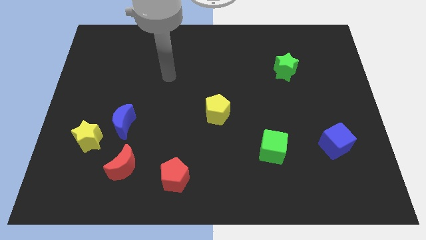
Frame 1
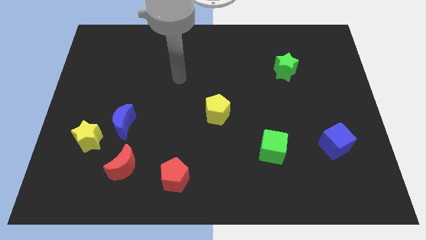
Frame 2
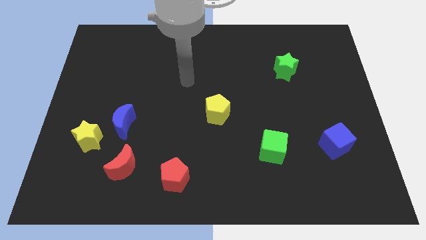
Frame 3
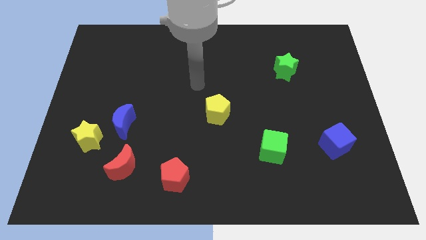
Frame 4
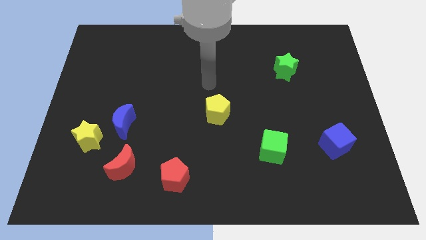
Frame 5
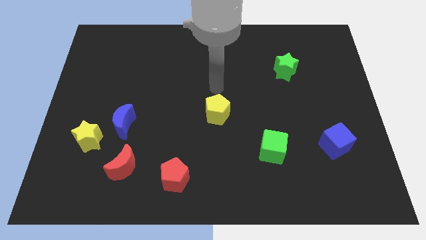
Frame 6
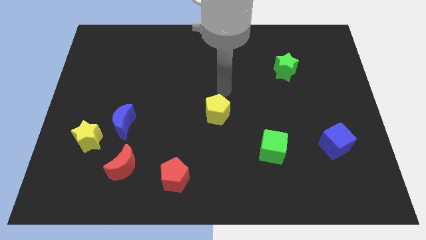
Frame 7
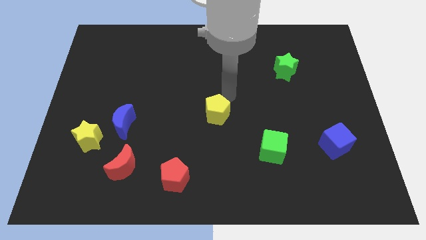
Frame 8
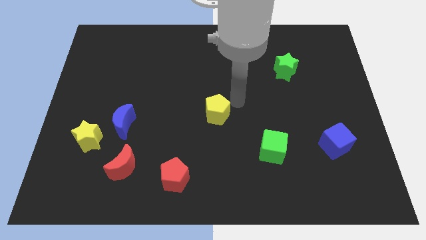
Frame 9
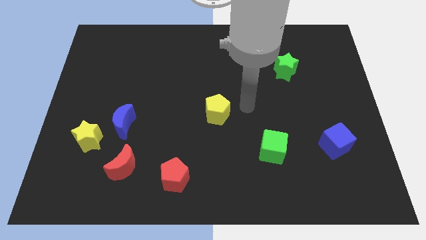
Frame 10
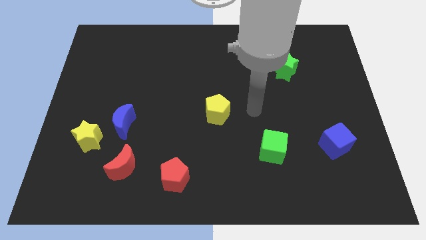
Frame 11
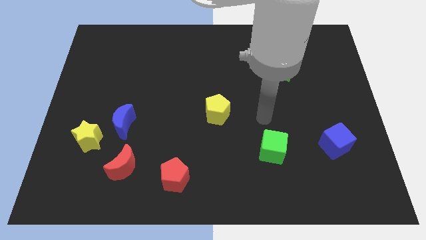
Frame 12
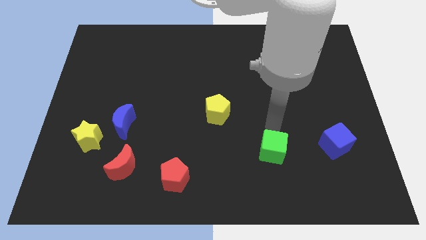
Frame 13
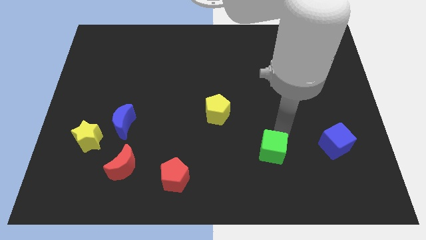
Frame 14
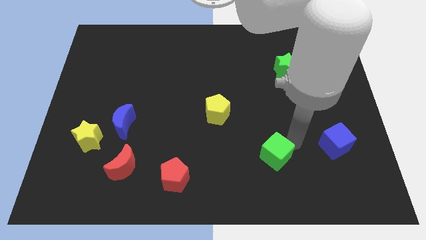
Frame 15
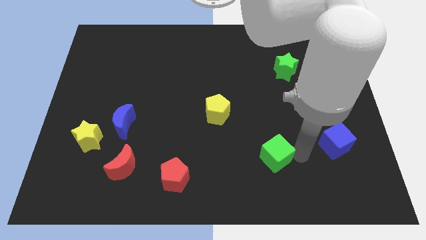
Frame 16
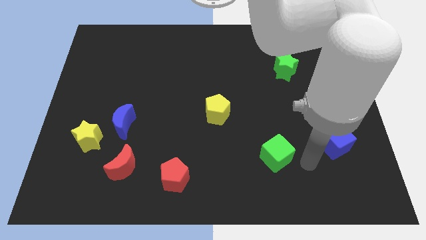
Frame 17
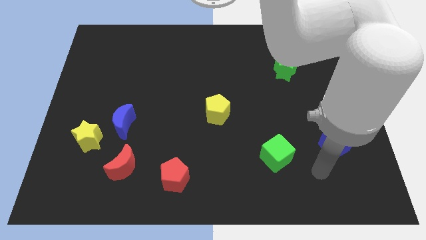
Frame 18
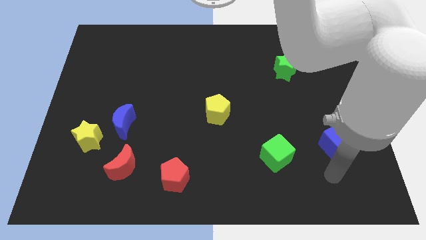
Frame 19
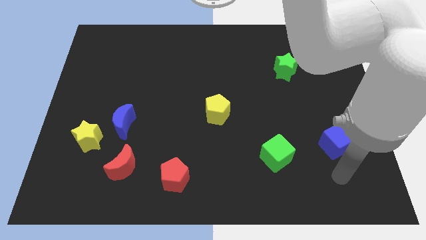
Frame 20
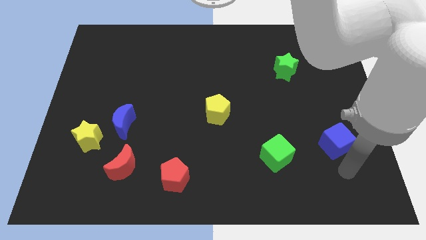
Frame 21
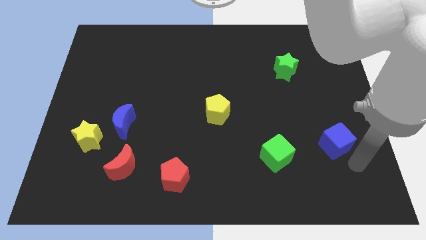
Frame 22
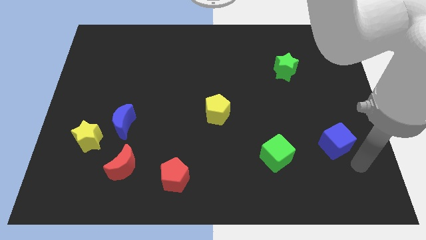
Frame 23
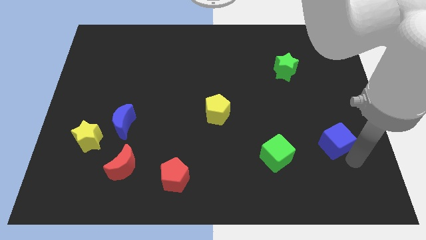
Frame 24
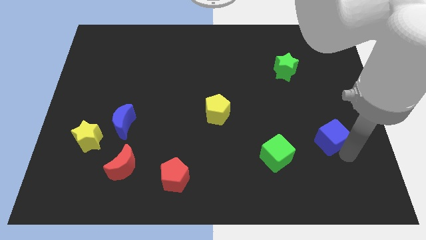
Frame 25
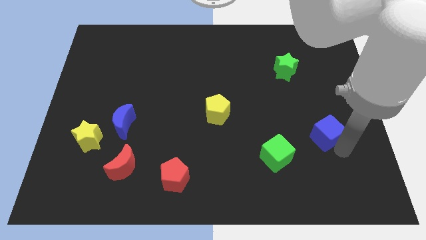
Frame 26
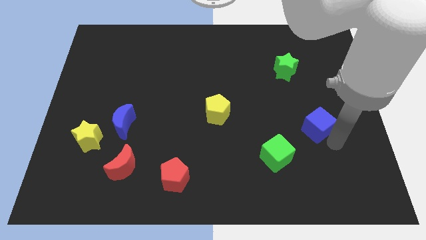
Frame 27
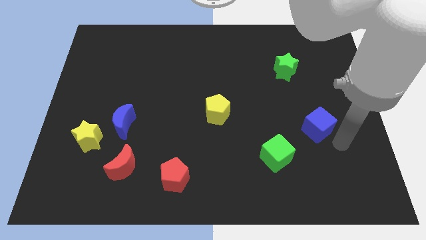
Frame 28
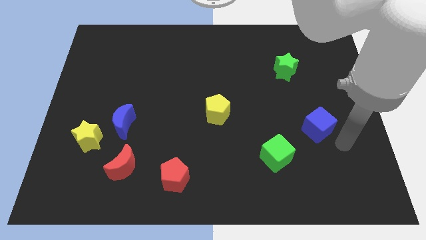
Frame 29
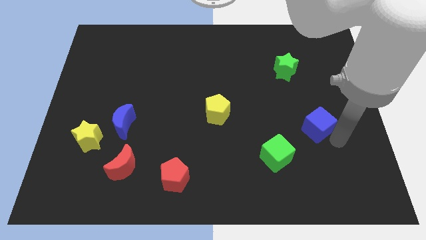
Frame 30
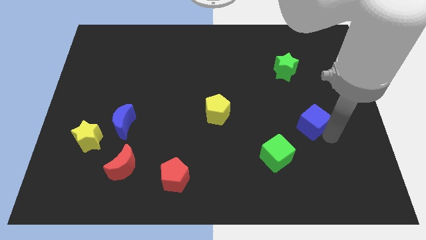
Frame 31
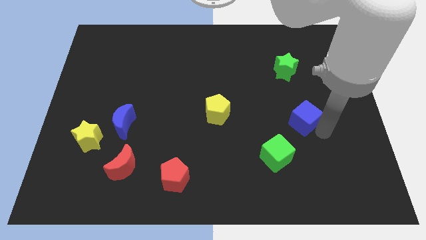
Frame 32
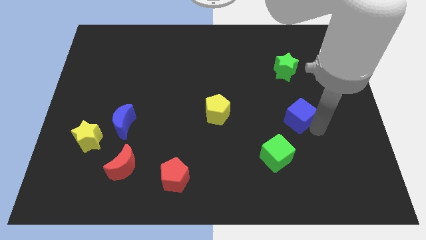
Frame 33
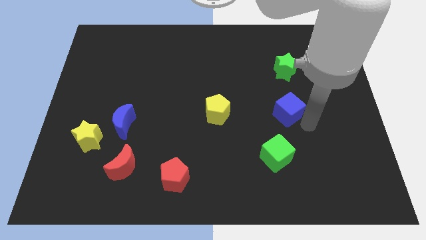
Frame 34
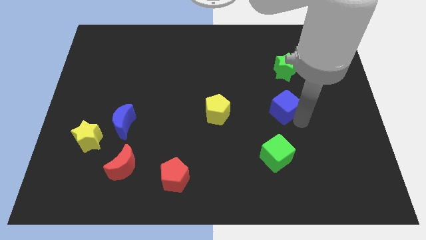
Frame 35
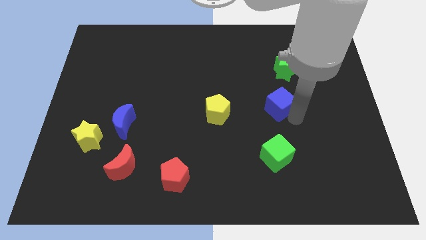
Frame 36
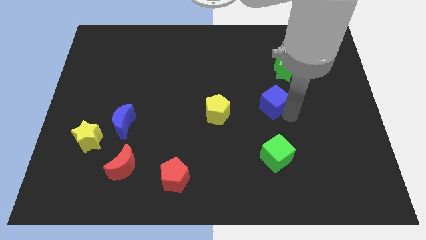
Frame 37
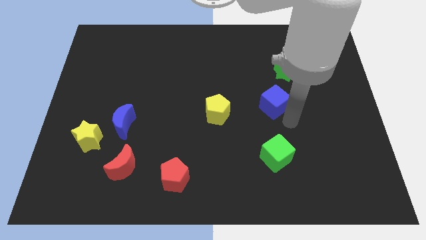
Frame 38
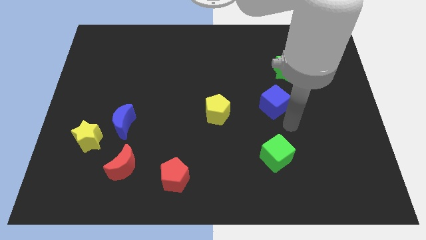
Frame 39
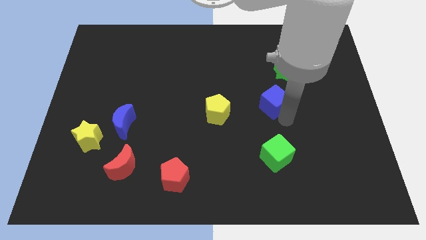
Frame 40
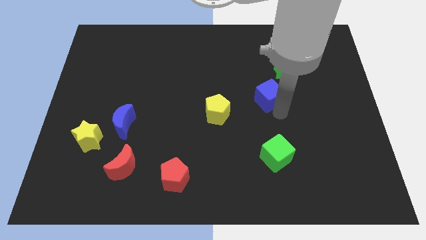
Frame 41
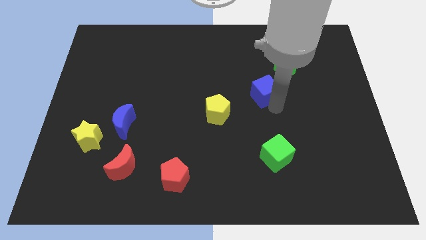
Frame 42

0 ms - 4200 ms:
push the blue cube upwards and left

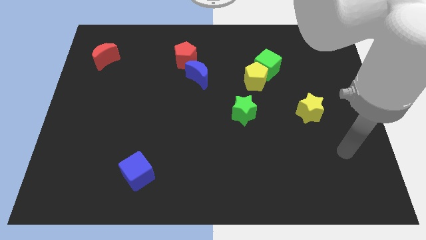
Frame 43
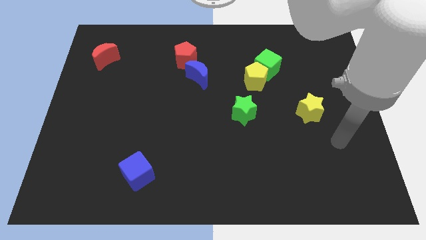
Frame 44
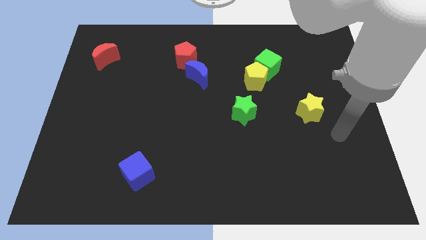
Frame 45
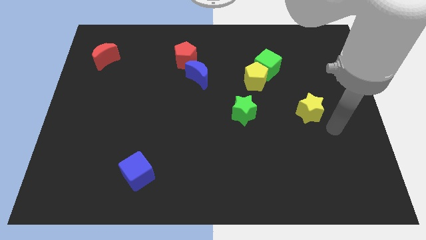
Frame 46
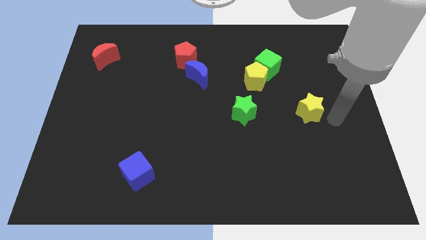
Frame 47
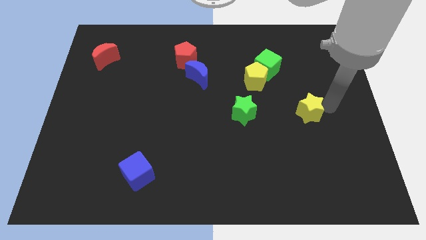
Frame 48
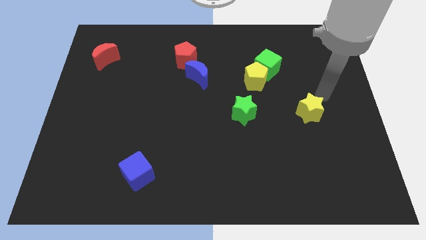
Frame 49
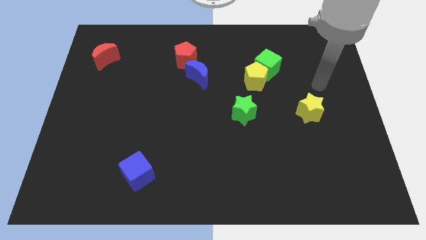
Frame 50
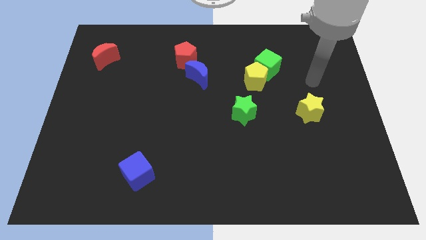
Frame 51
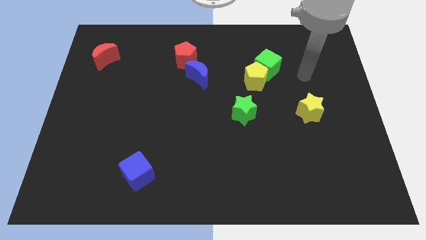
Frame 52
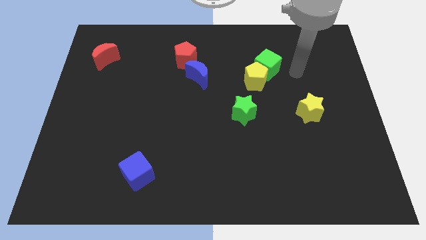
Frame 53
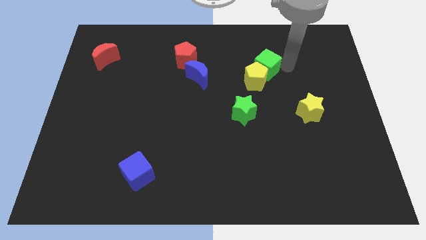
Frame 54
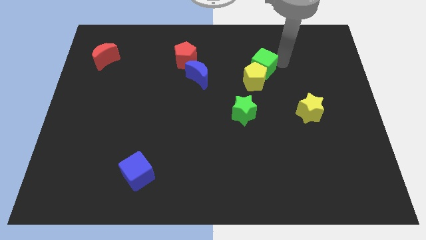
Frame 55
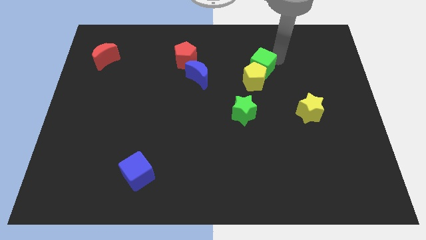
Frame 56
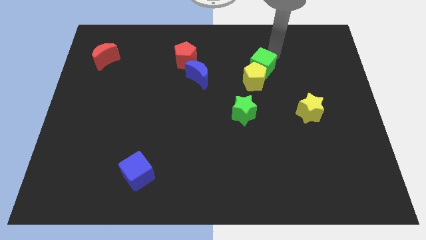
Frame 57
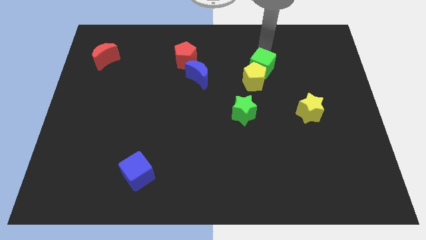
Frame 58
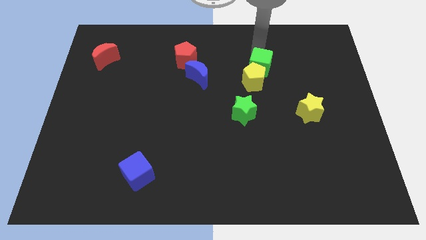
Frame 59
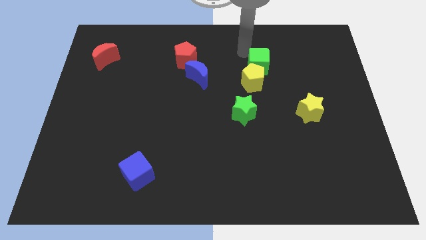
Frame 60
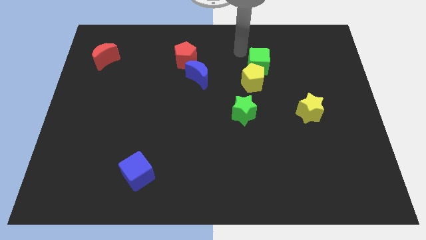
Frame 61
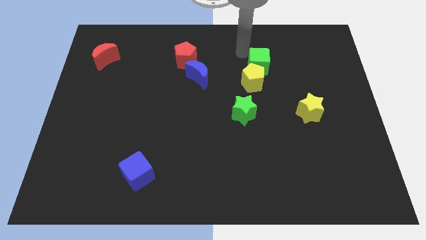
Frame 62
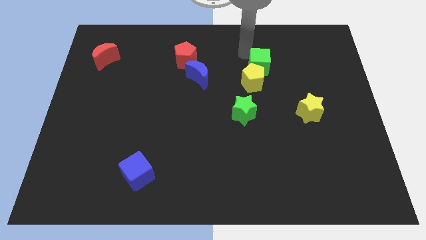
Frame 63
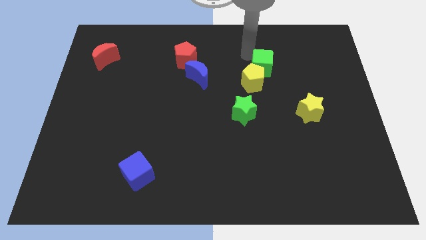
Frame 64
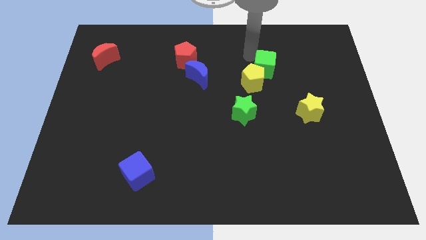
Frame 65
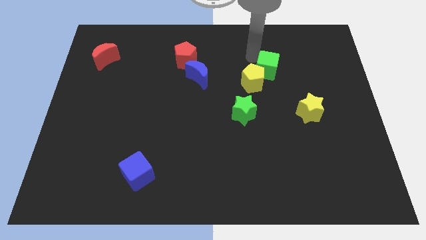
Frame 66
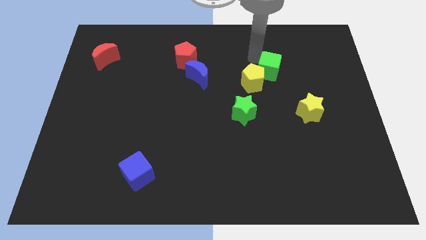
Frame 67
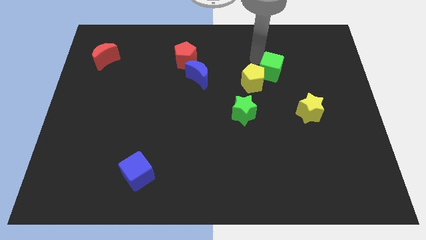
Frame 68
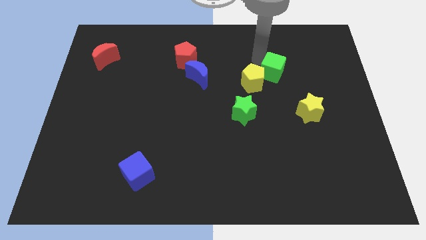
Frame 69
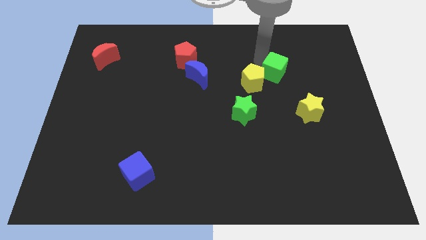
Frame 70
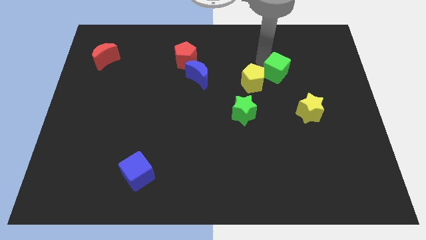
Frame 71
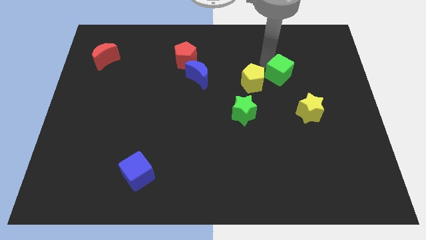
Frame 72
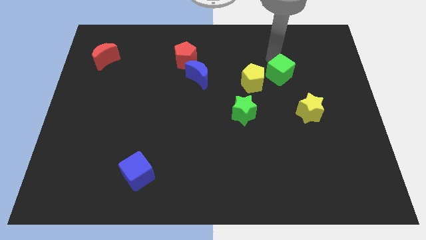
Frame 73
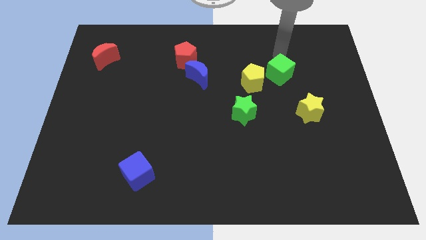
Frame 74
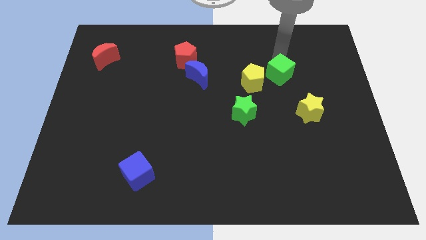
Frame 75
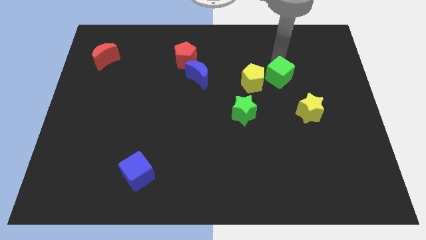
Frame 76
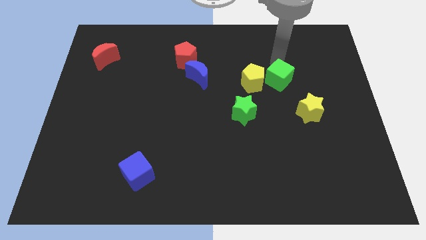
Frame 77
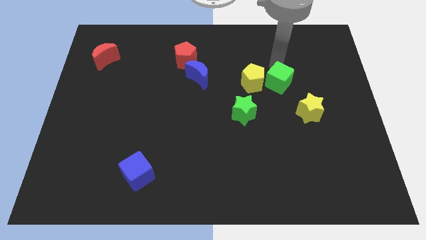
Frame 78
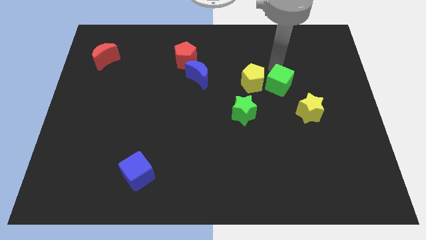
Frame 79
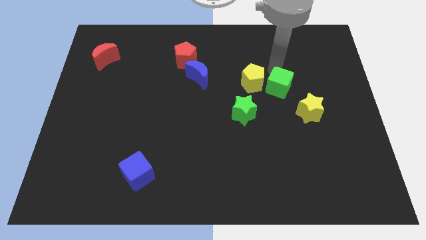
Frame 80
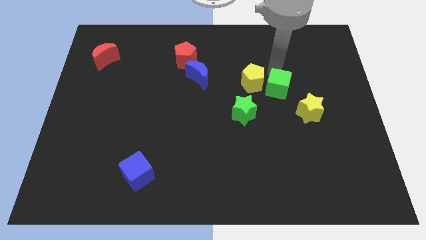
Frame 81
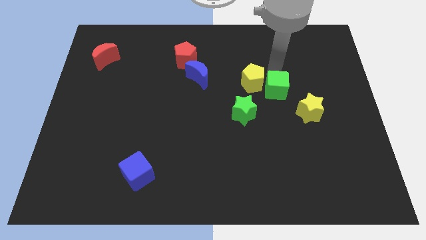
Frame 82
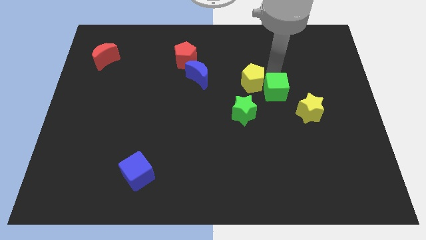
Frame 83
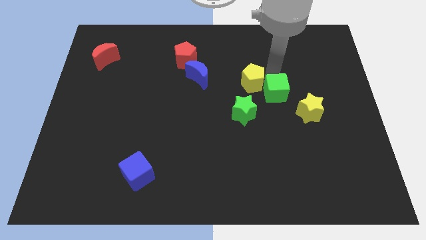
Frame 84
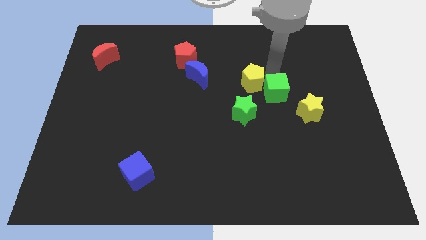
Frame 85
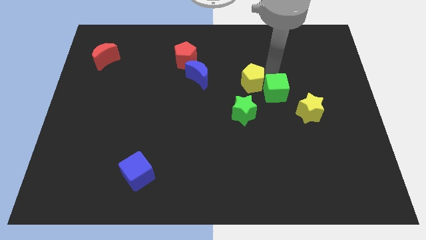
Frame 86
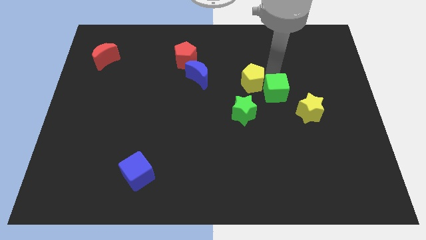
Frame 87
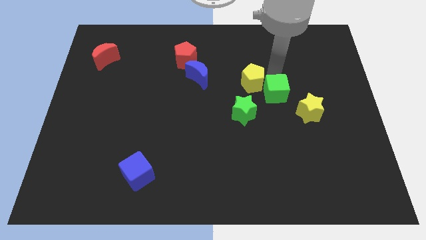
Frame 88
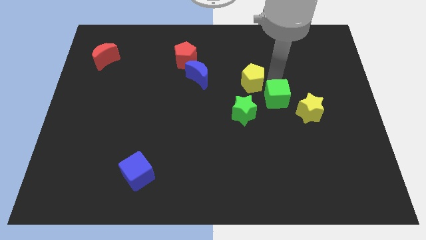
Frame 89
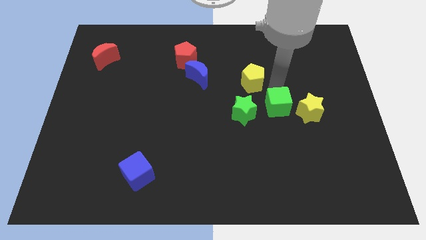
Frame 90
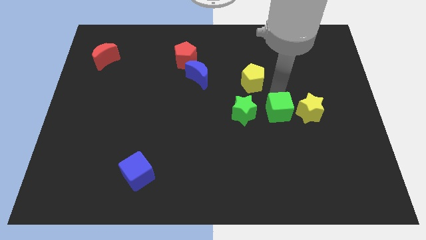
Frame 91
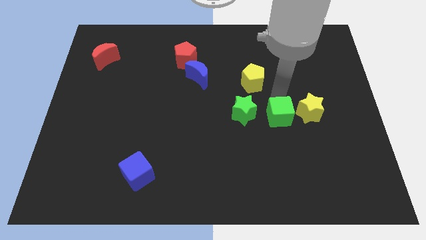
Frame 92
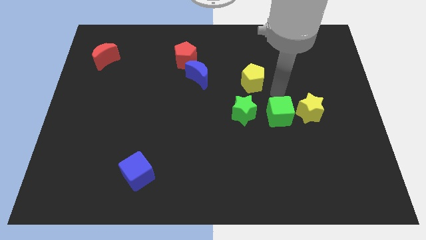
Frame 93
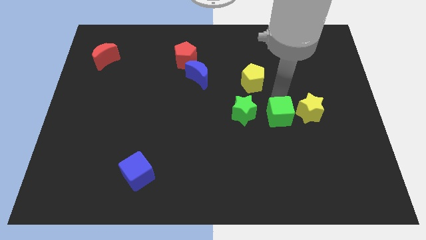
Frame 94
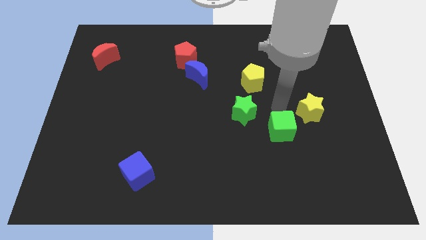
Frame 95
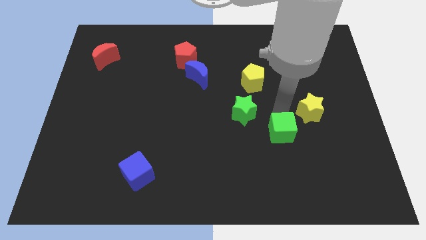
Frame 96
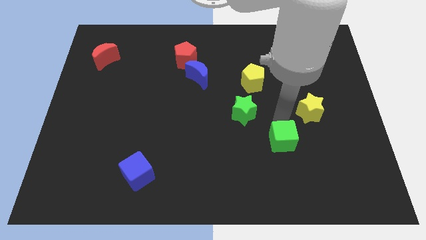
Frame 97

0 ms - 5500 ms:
move the green cube downwards
